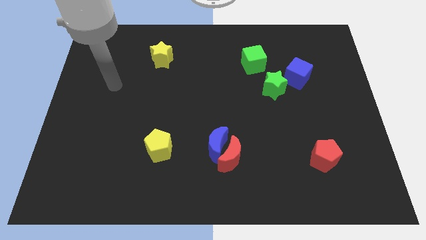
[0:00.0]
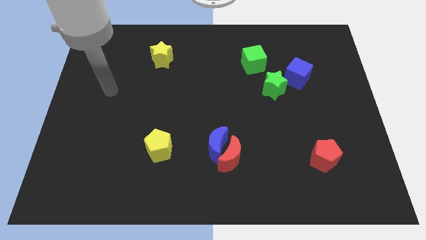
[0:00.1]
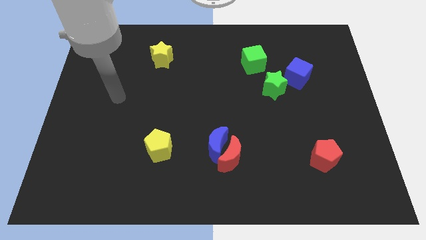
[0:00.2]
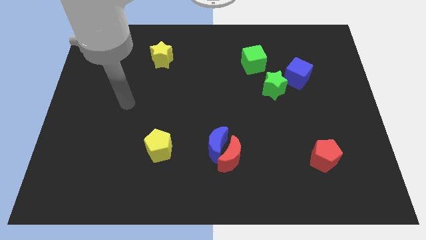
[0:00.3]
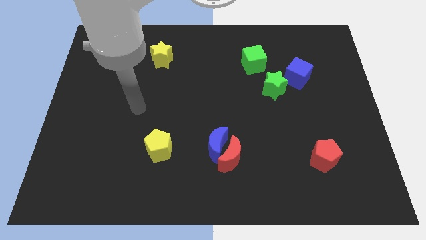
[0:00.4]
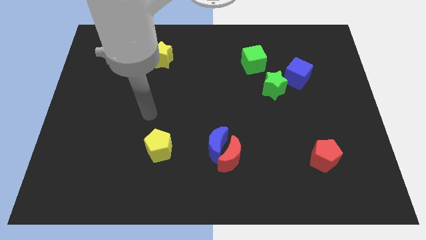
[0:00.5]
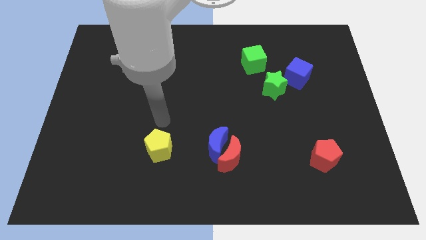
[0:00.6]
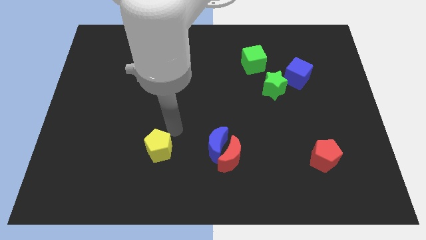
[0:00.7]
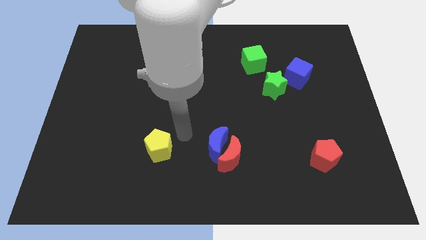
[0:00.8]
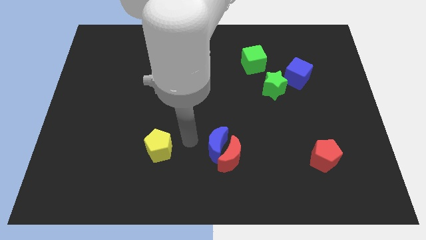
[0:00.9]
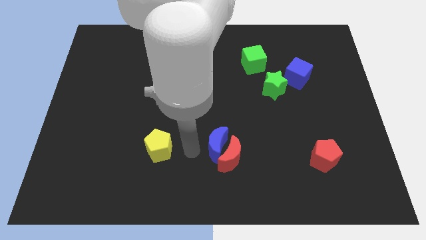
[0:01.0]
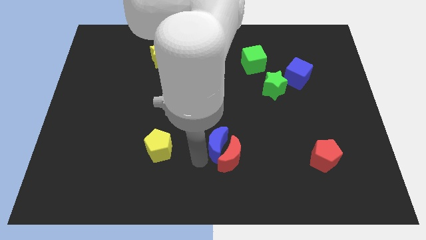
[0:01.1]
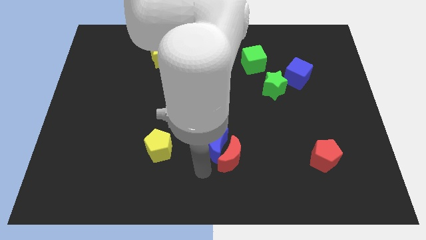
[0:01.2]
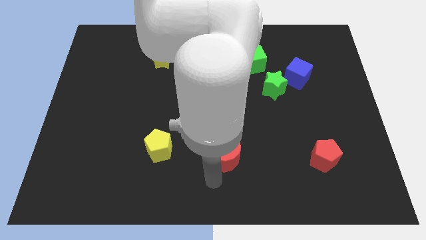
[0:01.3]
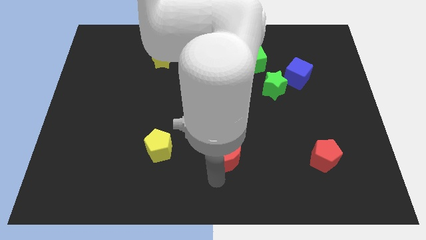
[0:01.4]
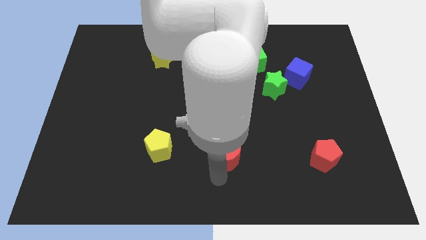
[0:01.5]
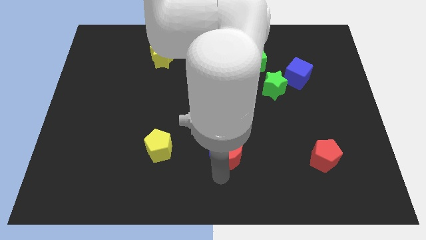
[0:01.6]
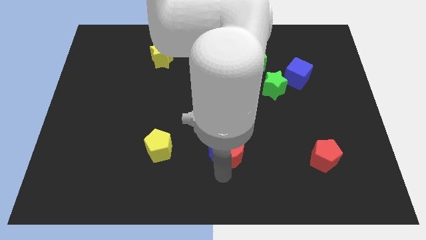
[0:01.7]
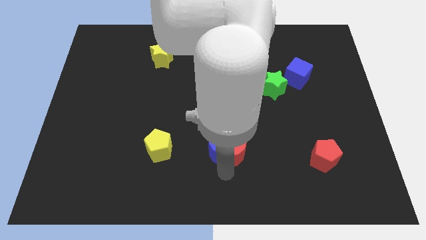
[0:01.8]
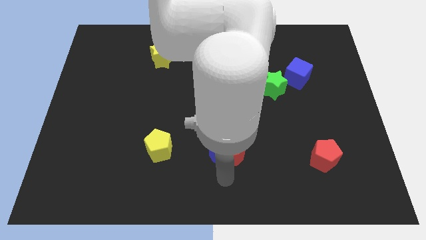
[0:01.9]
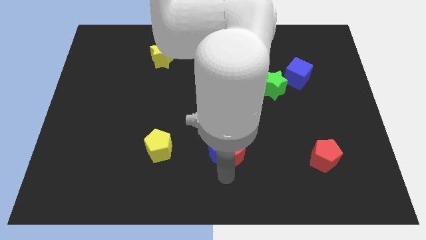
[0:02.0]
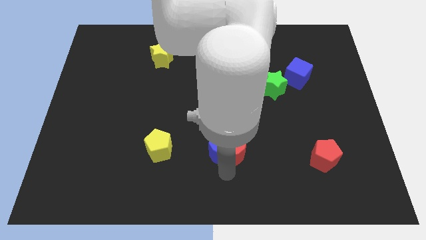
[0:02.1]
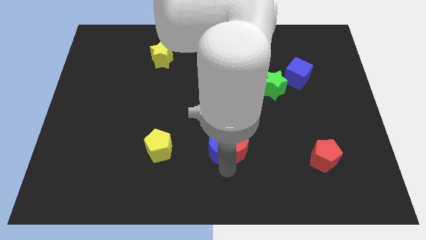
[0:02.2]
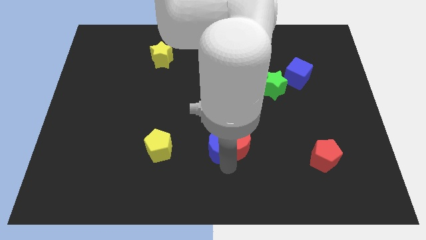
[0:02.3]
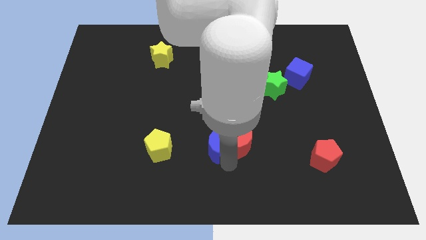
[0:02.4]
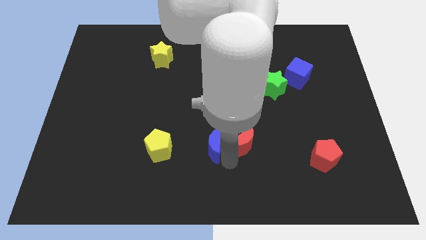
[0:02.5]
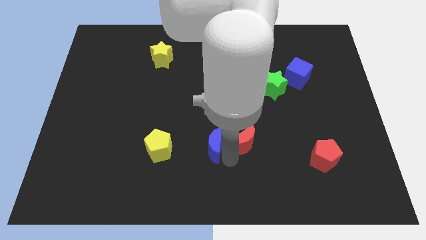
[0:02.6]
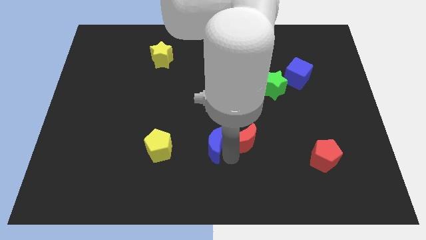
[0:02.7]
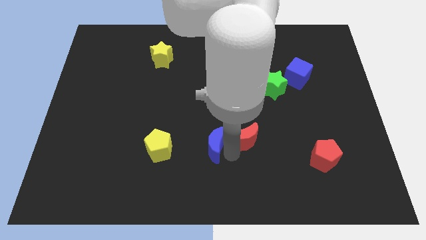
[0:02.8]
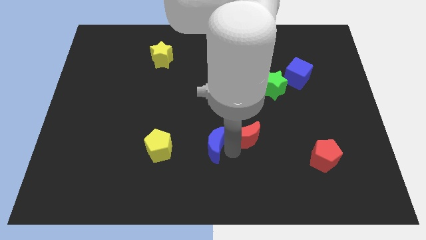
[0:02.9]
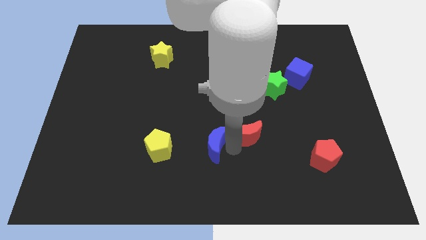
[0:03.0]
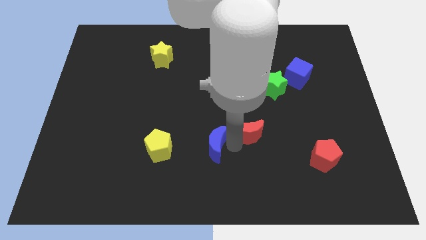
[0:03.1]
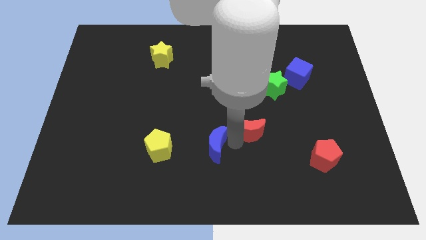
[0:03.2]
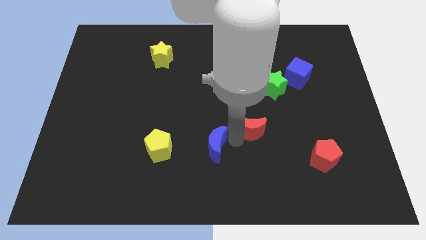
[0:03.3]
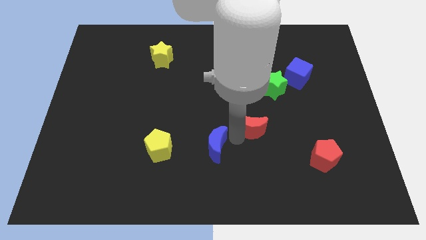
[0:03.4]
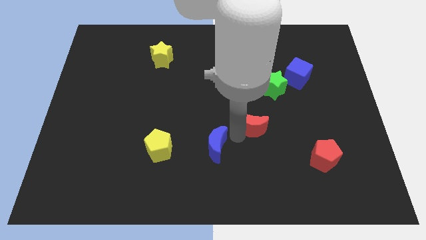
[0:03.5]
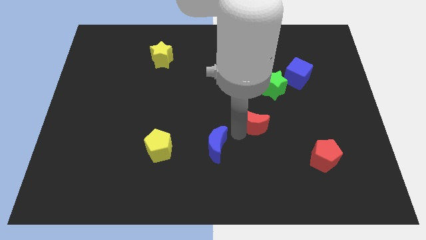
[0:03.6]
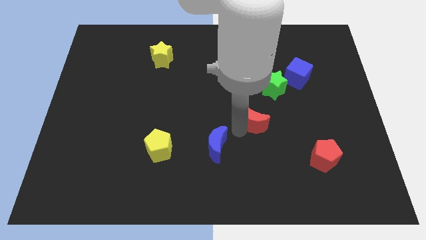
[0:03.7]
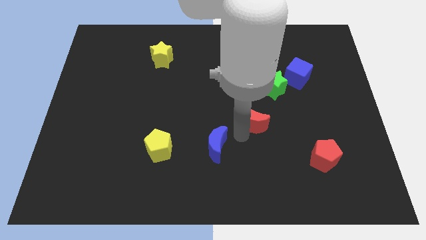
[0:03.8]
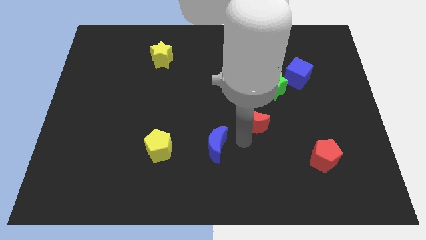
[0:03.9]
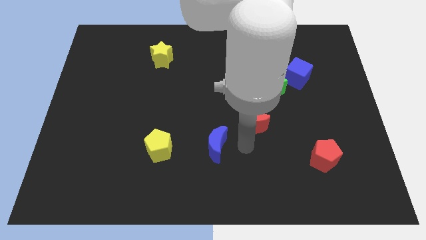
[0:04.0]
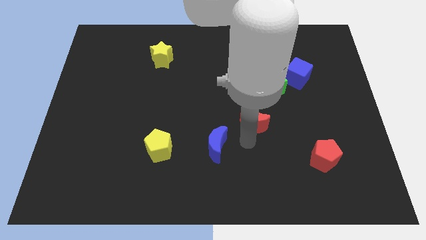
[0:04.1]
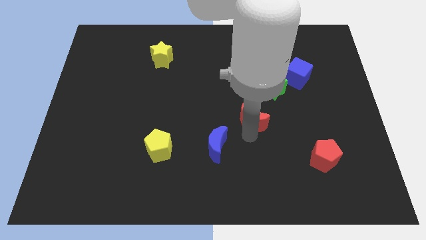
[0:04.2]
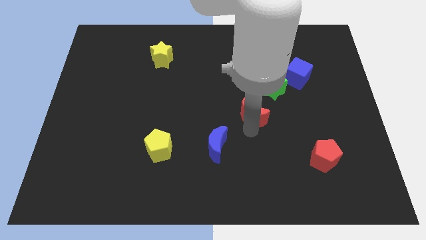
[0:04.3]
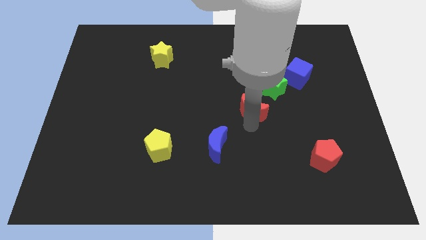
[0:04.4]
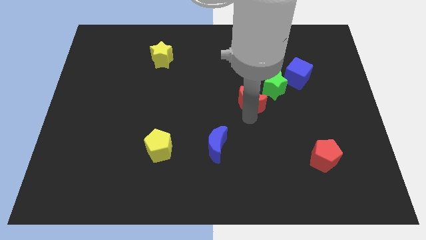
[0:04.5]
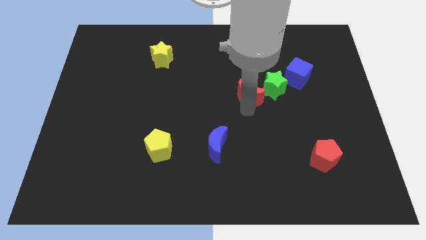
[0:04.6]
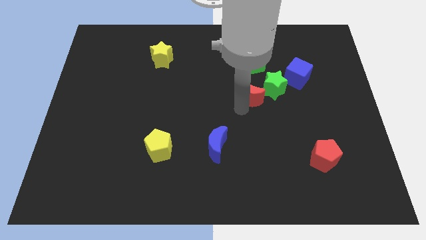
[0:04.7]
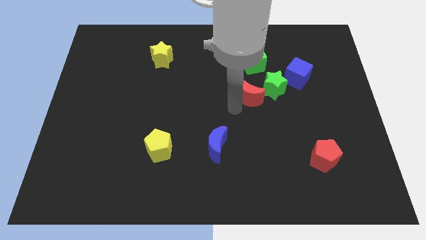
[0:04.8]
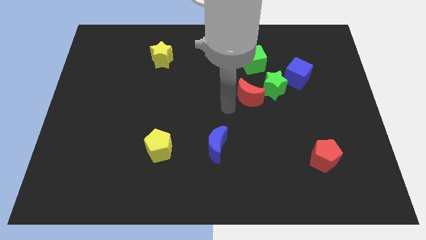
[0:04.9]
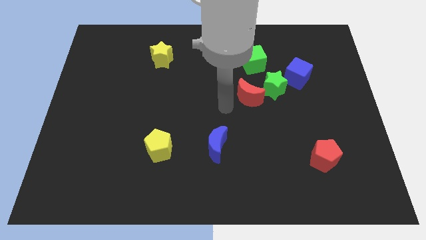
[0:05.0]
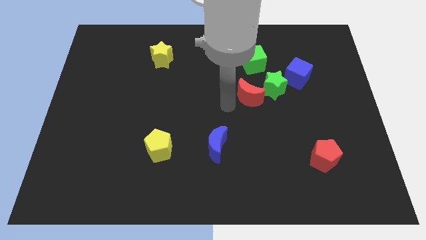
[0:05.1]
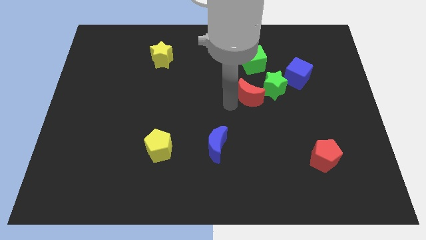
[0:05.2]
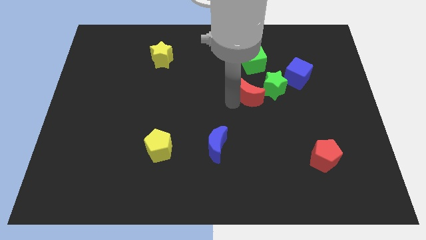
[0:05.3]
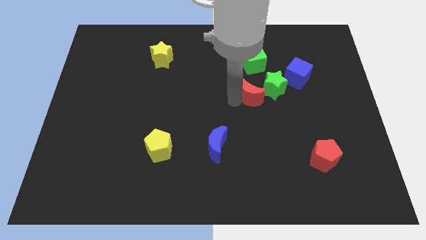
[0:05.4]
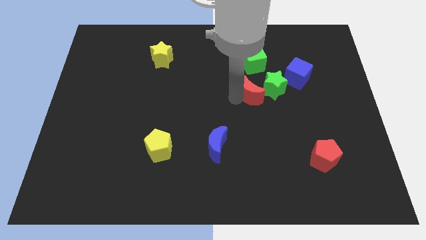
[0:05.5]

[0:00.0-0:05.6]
push the red moon towards the green star

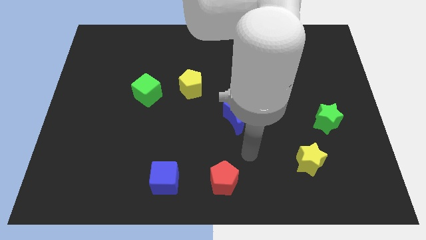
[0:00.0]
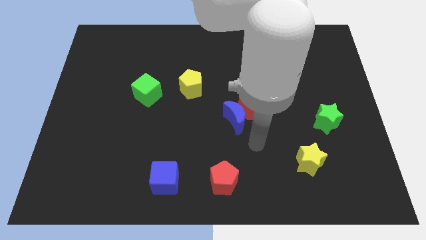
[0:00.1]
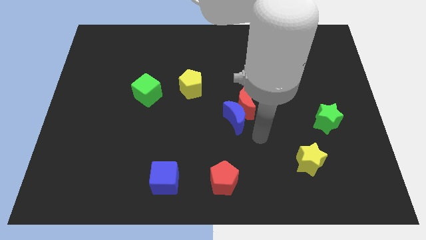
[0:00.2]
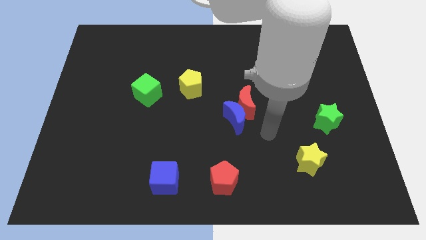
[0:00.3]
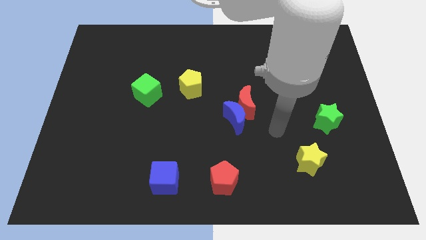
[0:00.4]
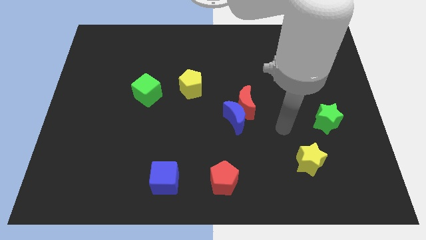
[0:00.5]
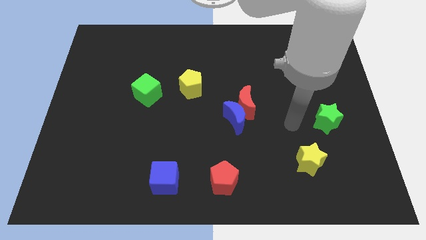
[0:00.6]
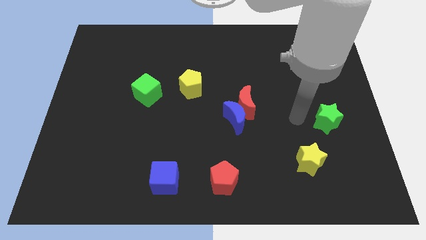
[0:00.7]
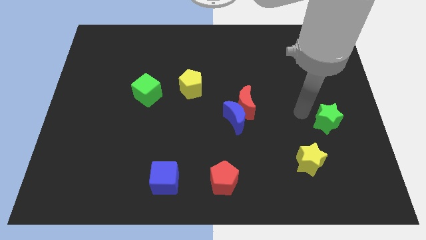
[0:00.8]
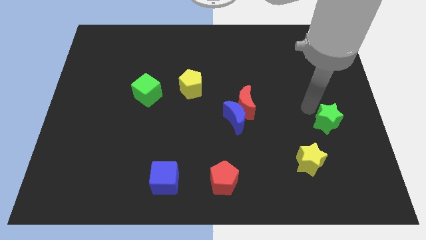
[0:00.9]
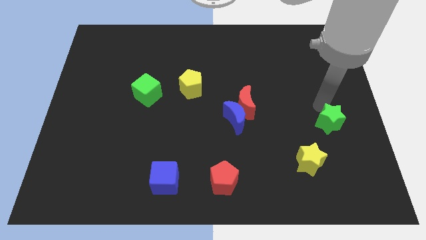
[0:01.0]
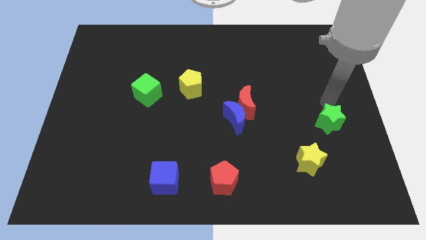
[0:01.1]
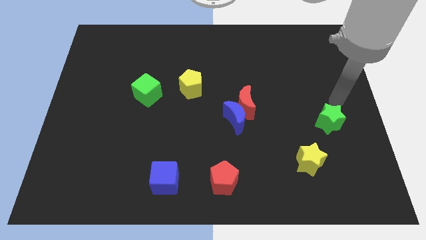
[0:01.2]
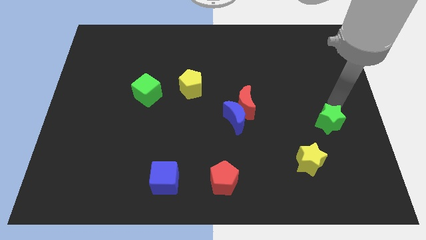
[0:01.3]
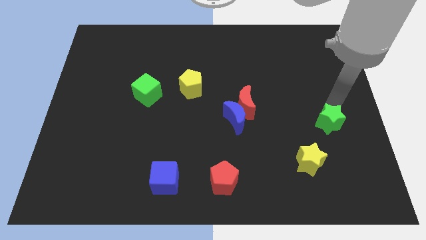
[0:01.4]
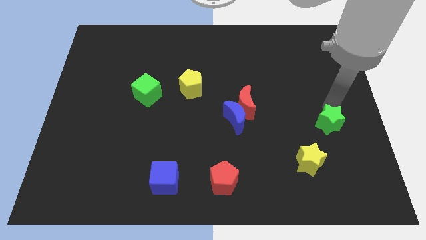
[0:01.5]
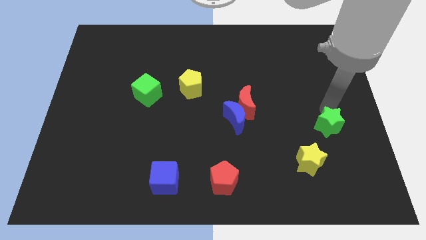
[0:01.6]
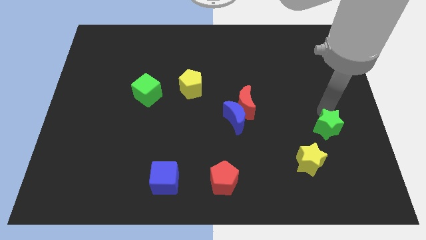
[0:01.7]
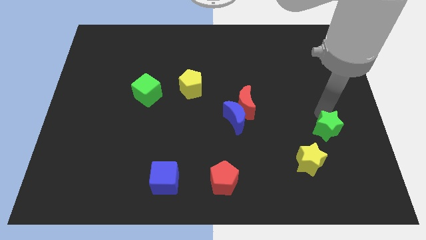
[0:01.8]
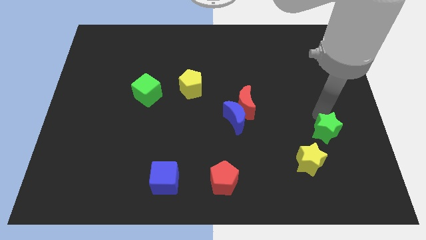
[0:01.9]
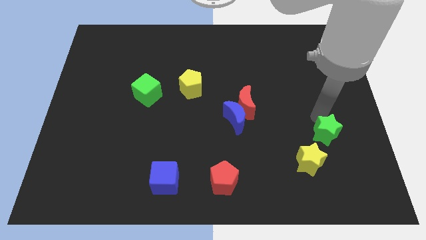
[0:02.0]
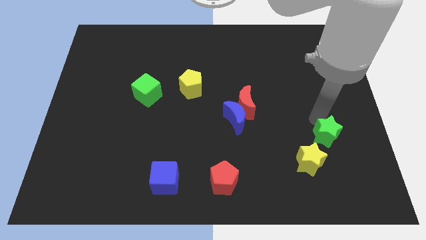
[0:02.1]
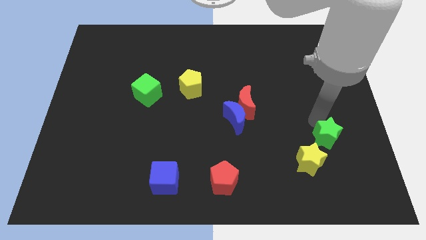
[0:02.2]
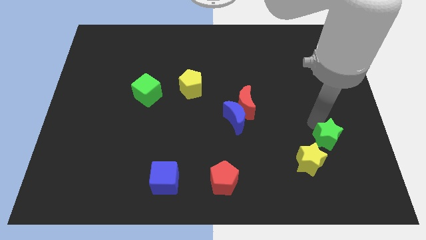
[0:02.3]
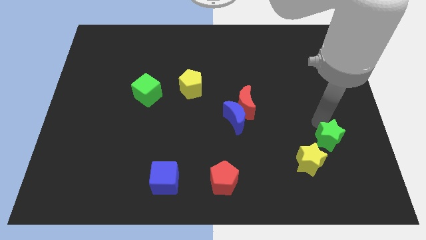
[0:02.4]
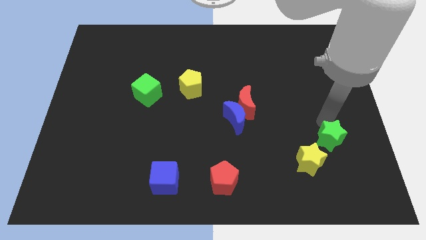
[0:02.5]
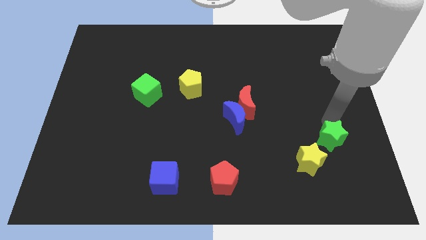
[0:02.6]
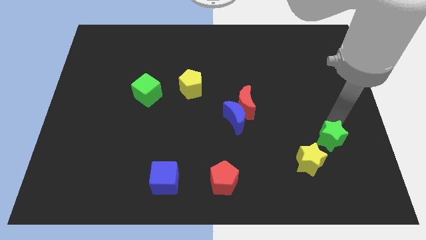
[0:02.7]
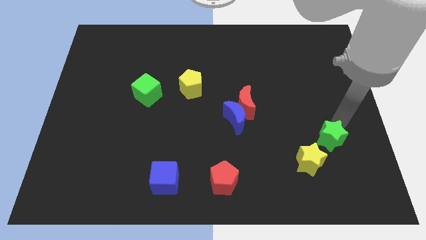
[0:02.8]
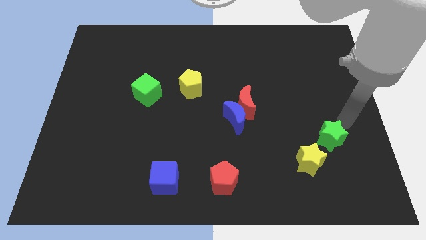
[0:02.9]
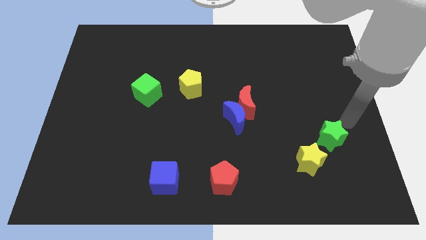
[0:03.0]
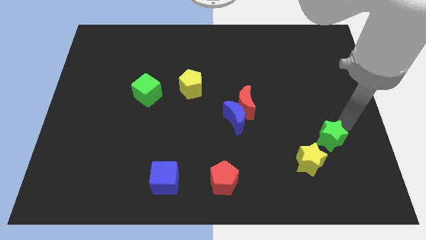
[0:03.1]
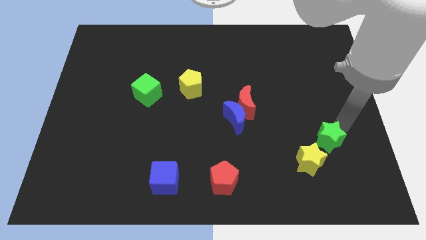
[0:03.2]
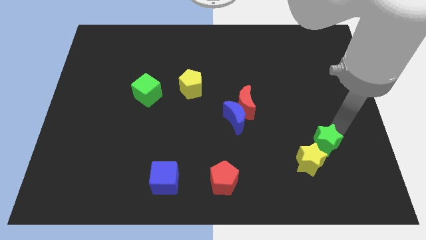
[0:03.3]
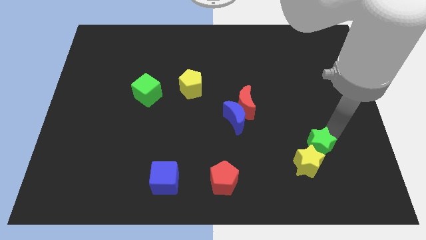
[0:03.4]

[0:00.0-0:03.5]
put the green star close to the yellow star
